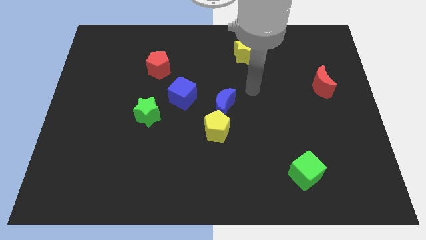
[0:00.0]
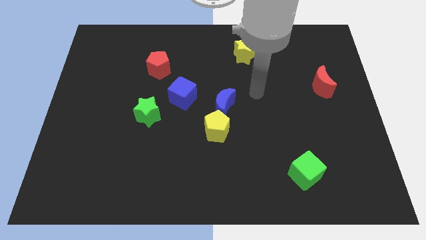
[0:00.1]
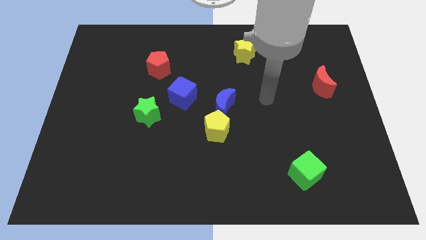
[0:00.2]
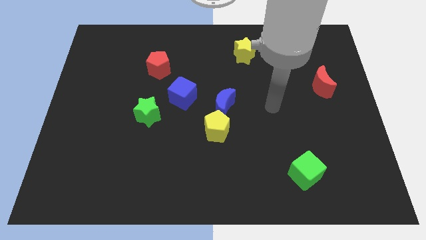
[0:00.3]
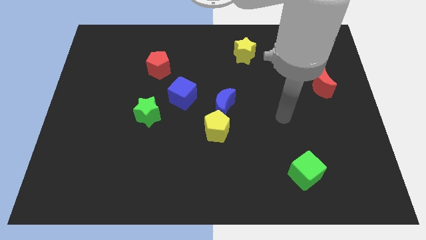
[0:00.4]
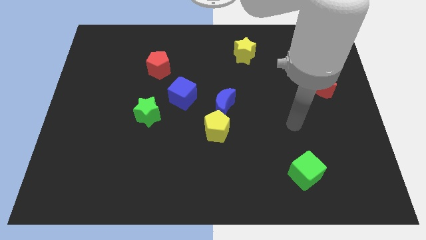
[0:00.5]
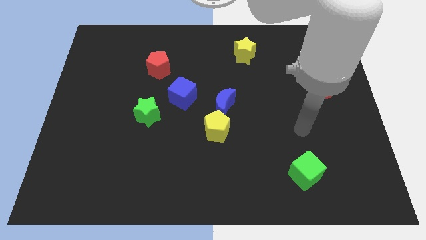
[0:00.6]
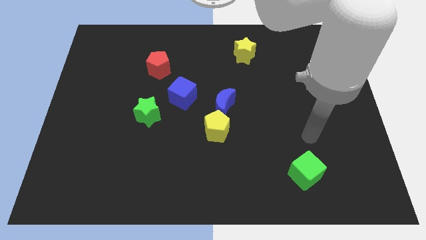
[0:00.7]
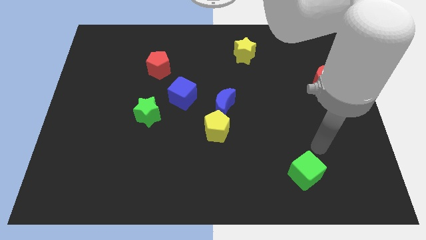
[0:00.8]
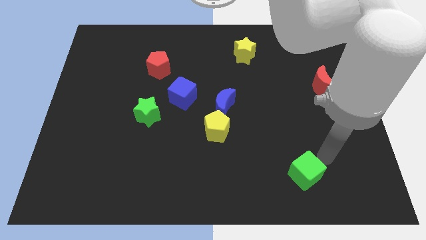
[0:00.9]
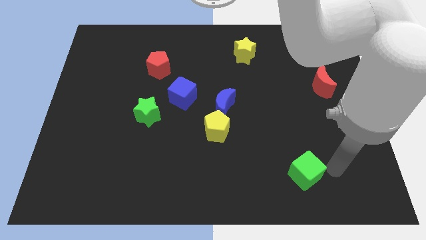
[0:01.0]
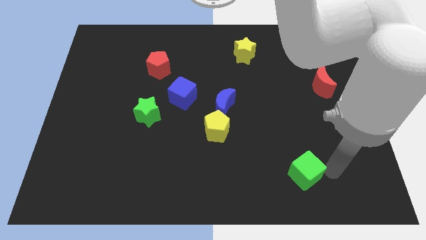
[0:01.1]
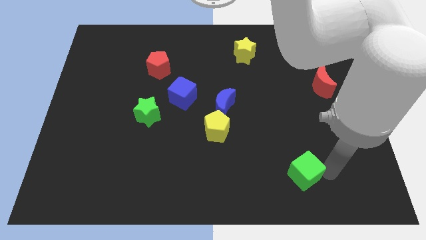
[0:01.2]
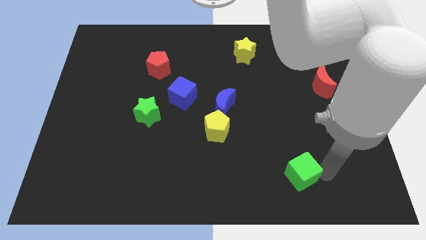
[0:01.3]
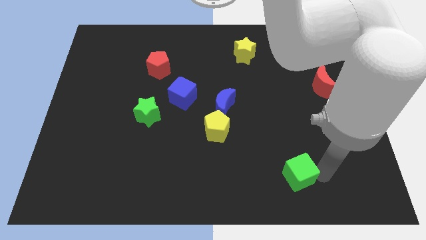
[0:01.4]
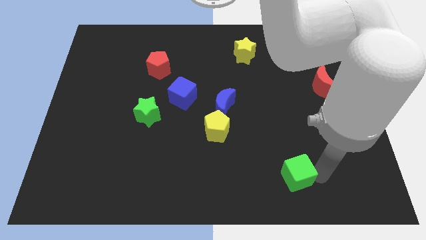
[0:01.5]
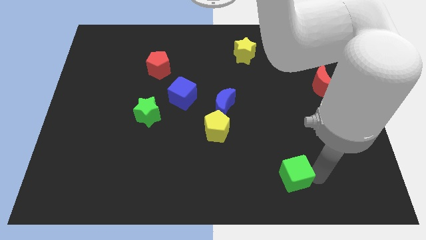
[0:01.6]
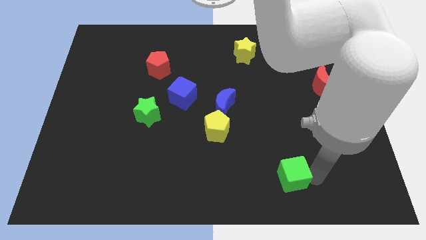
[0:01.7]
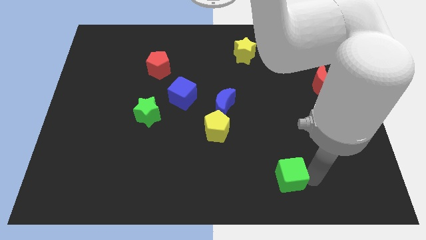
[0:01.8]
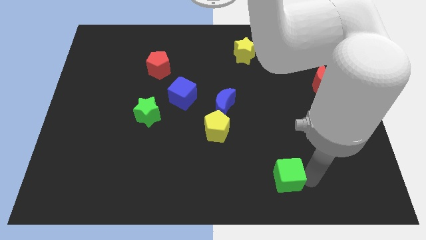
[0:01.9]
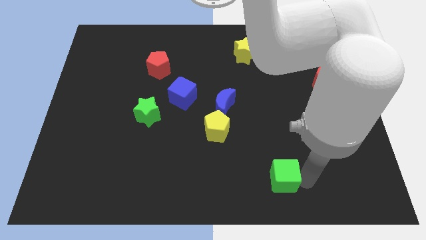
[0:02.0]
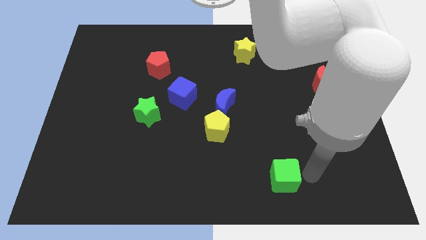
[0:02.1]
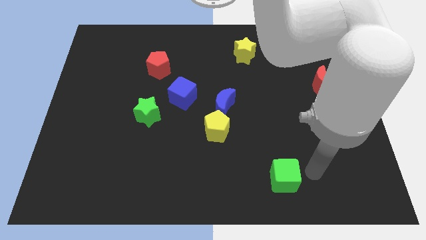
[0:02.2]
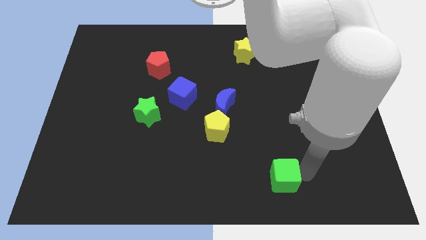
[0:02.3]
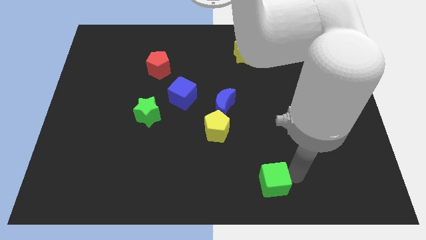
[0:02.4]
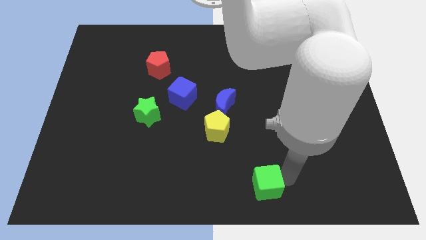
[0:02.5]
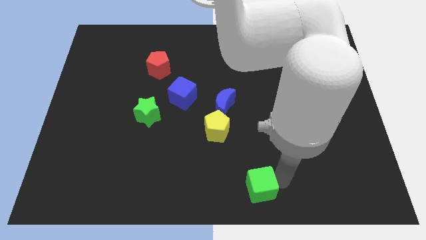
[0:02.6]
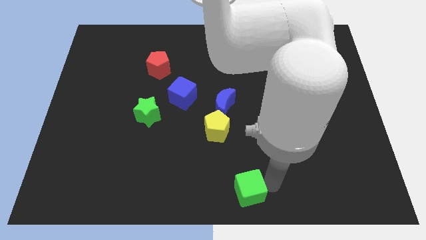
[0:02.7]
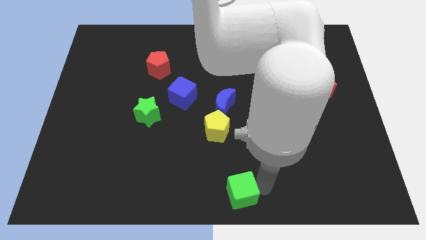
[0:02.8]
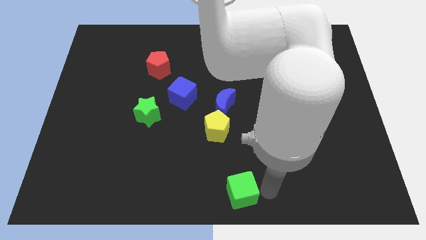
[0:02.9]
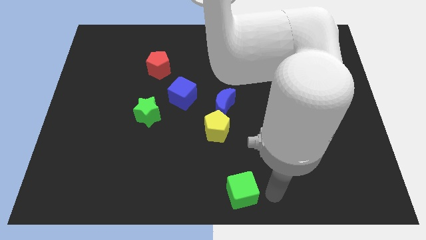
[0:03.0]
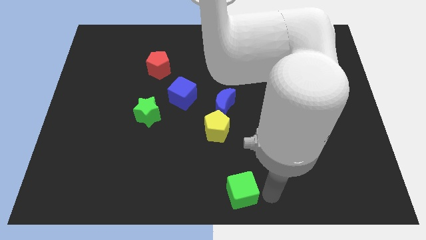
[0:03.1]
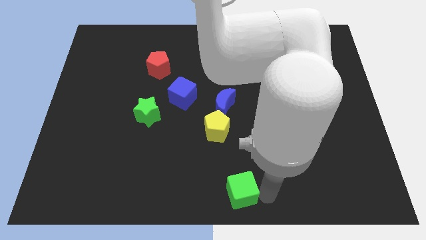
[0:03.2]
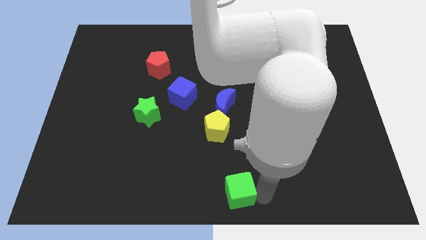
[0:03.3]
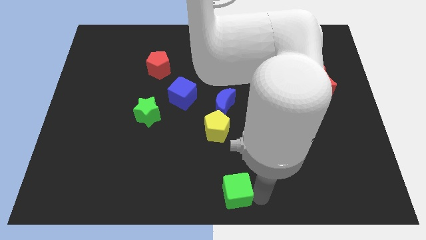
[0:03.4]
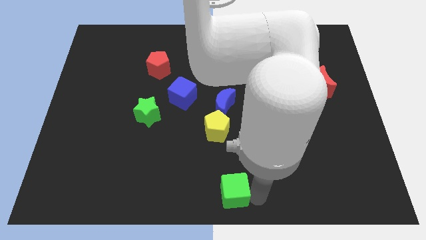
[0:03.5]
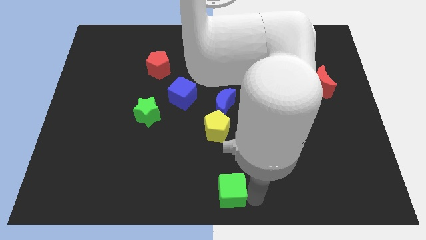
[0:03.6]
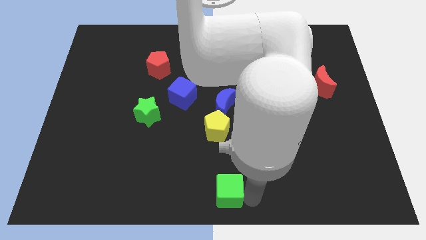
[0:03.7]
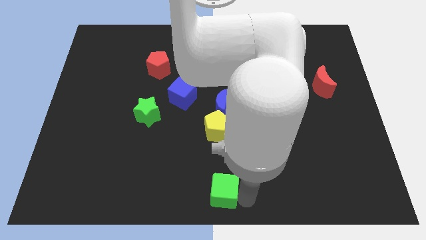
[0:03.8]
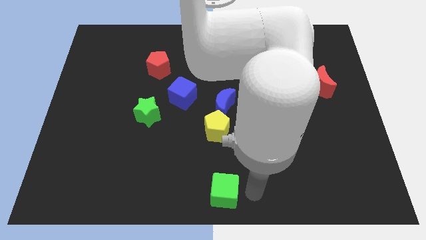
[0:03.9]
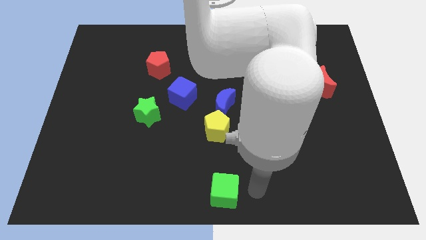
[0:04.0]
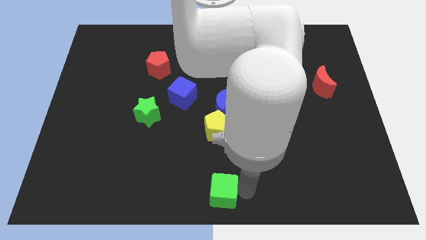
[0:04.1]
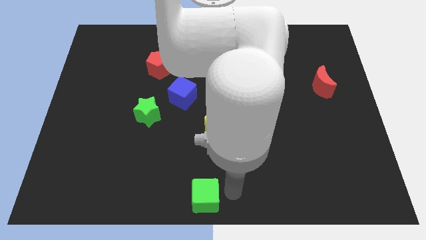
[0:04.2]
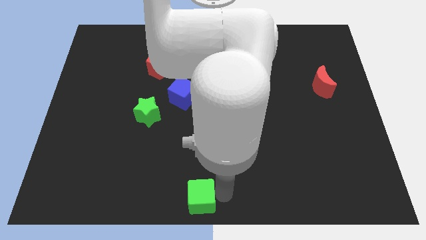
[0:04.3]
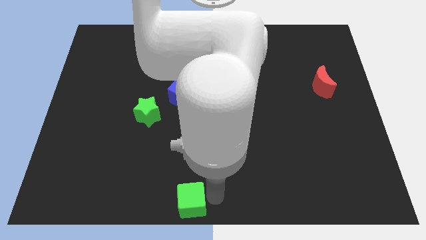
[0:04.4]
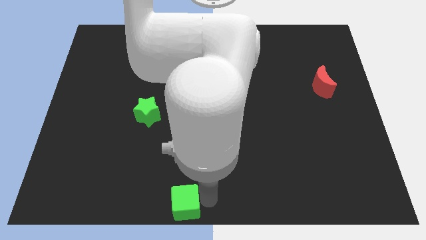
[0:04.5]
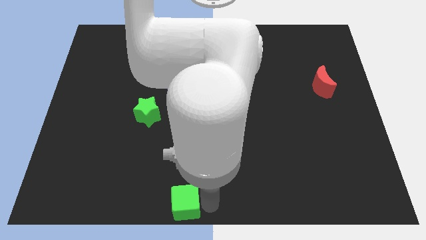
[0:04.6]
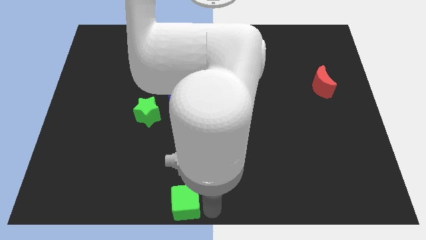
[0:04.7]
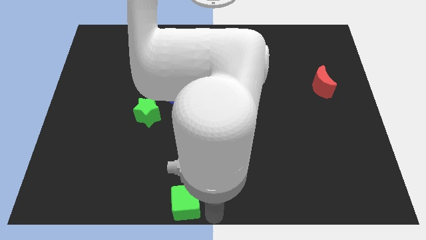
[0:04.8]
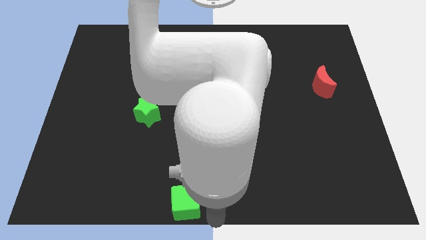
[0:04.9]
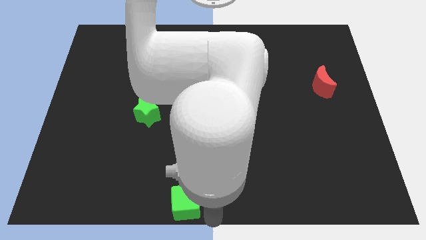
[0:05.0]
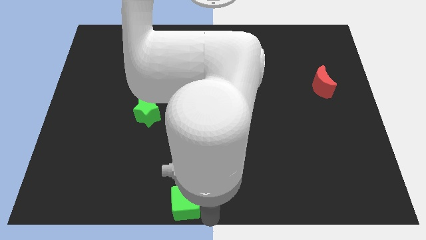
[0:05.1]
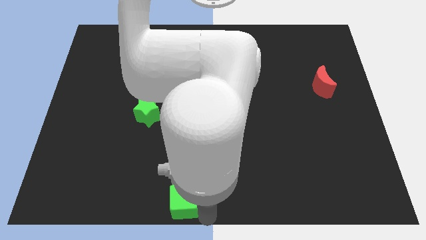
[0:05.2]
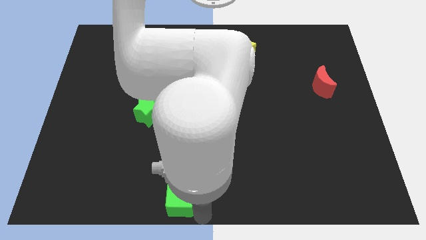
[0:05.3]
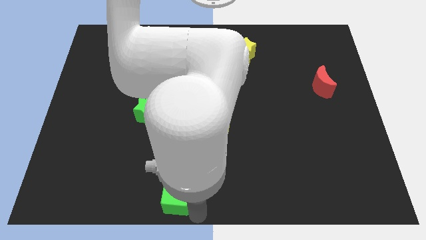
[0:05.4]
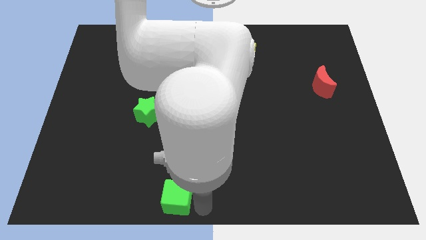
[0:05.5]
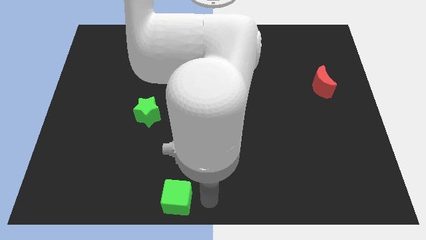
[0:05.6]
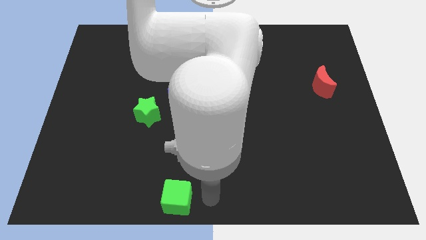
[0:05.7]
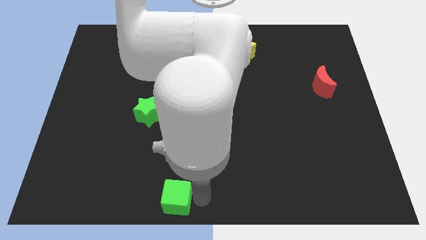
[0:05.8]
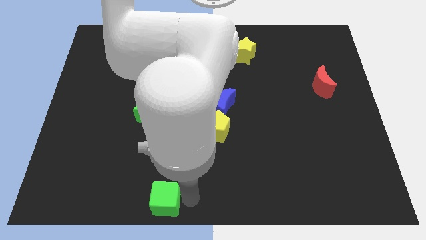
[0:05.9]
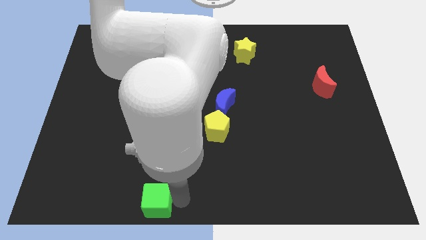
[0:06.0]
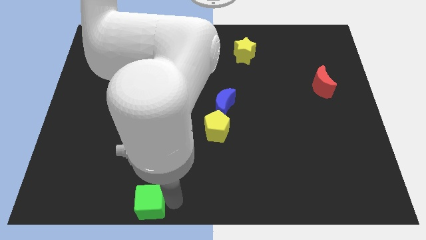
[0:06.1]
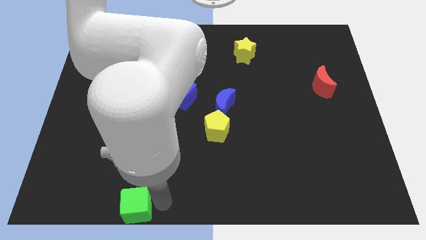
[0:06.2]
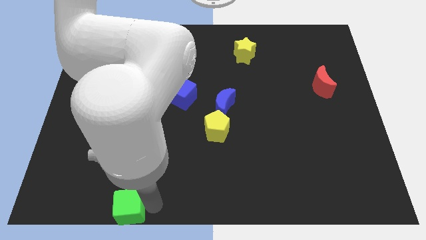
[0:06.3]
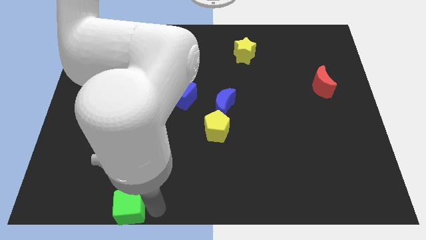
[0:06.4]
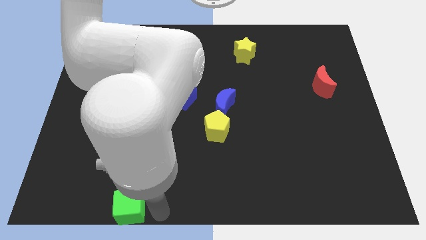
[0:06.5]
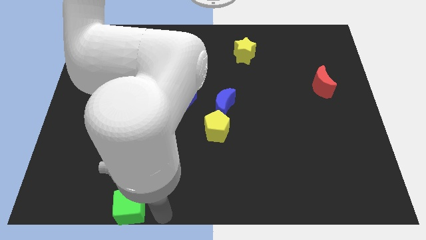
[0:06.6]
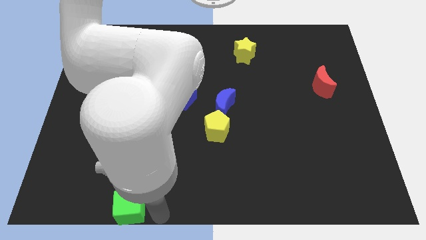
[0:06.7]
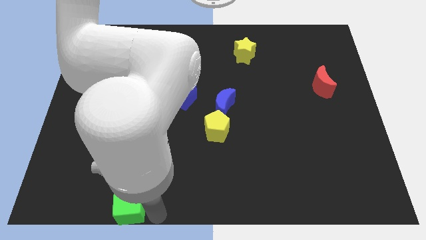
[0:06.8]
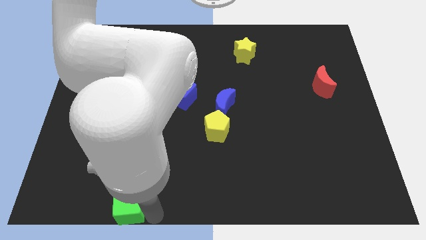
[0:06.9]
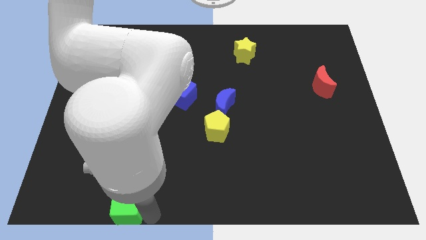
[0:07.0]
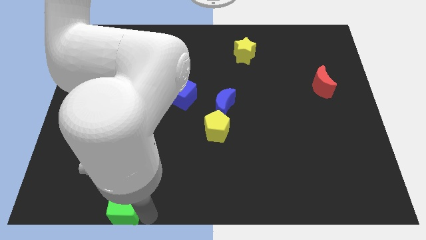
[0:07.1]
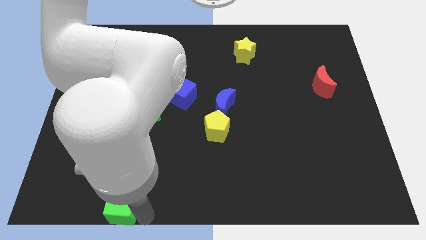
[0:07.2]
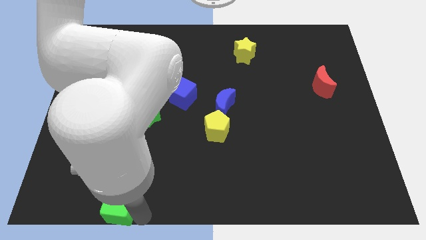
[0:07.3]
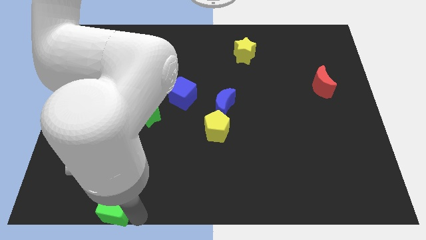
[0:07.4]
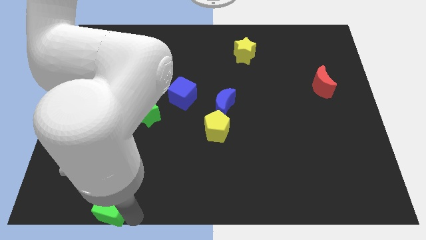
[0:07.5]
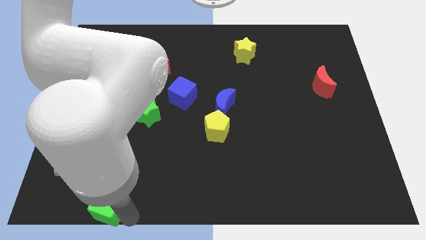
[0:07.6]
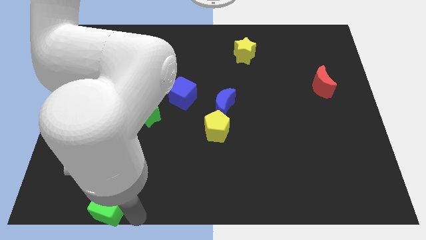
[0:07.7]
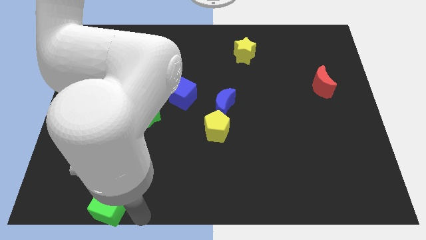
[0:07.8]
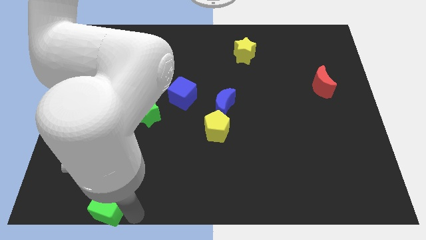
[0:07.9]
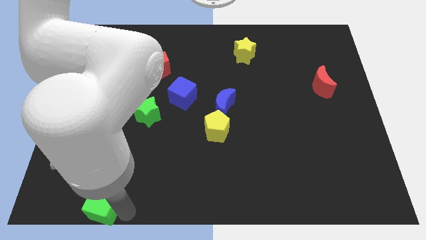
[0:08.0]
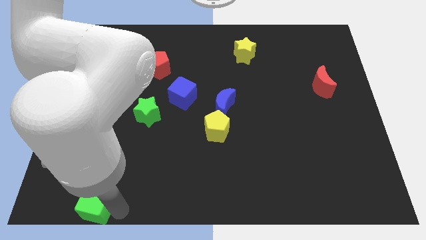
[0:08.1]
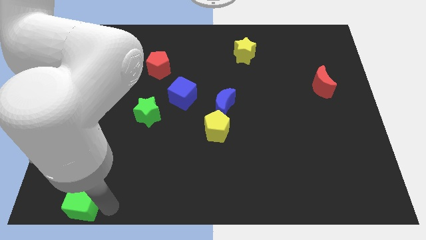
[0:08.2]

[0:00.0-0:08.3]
push the green cube to the bottom left
